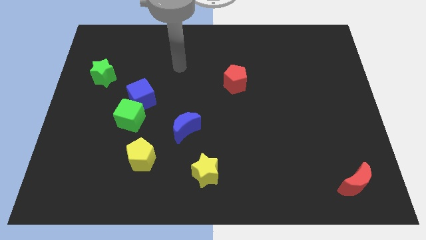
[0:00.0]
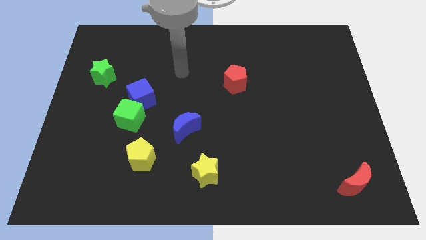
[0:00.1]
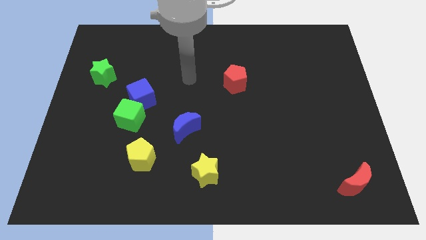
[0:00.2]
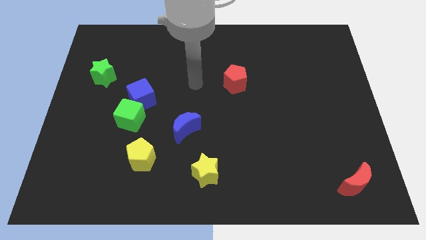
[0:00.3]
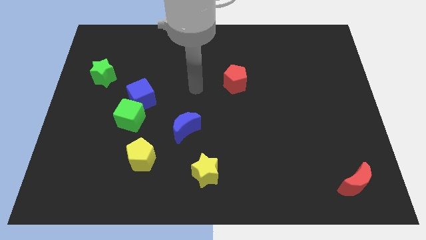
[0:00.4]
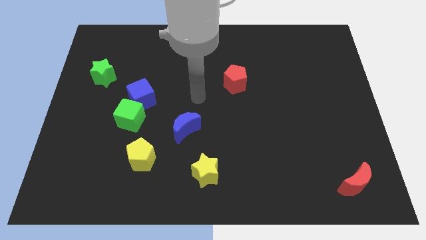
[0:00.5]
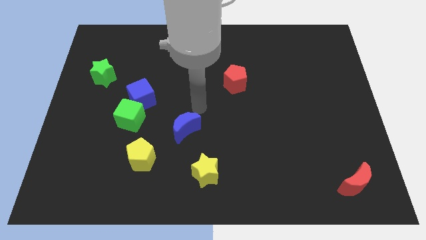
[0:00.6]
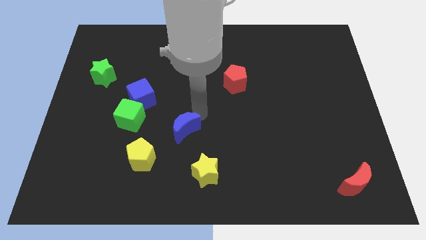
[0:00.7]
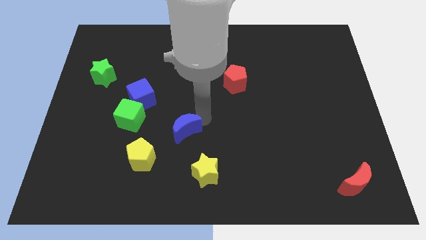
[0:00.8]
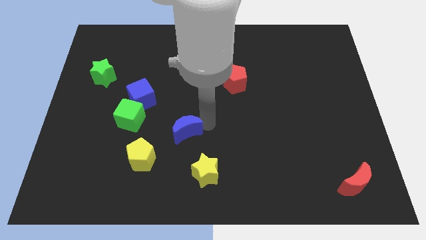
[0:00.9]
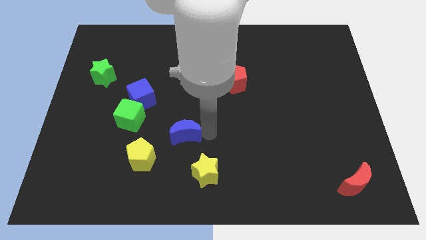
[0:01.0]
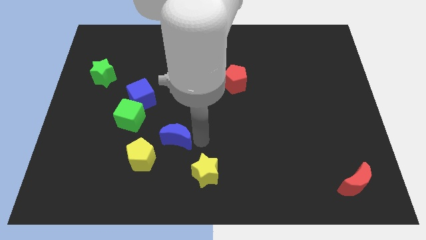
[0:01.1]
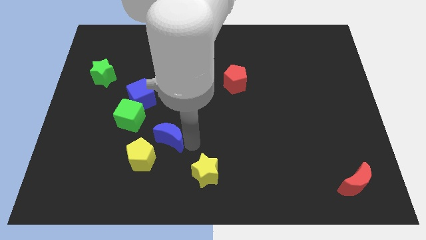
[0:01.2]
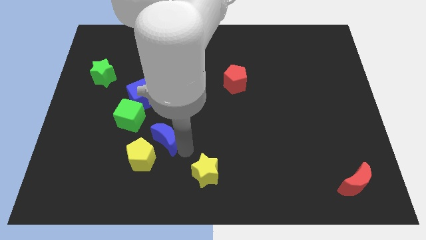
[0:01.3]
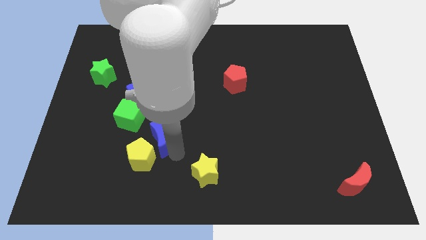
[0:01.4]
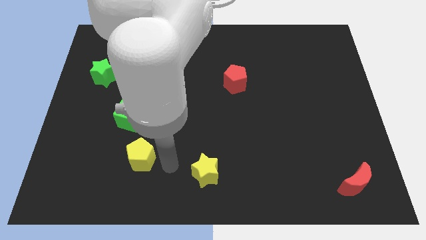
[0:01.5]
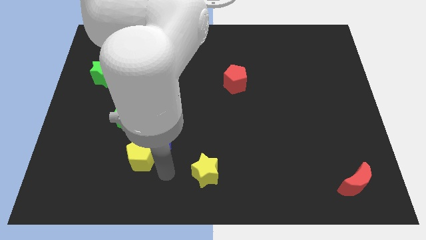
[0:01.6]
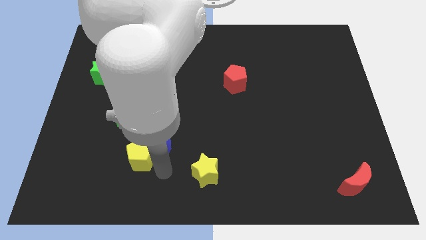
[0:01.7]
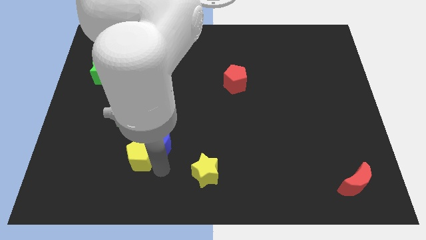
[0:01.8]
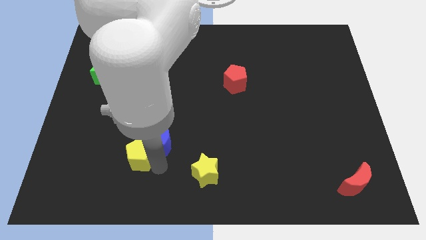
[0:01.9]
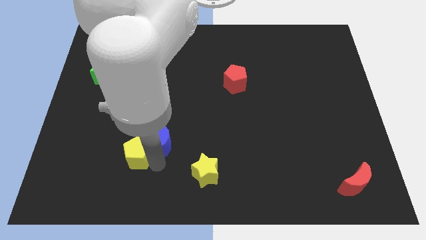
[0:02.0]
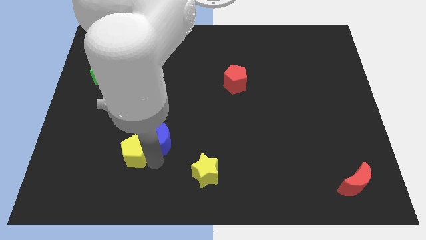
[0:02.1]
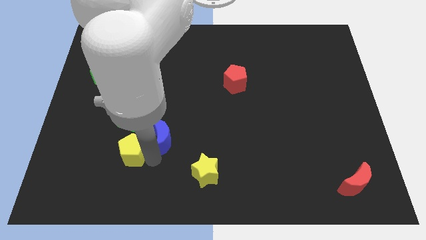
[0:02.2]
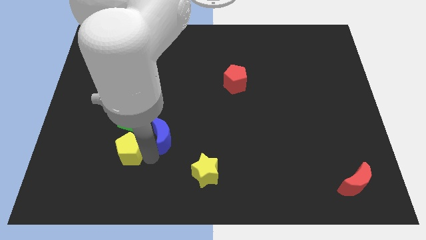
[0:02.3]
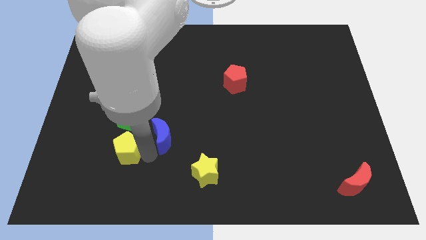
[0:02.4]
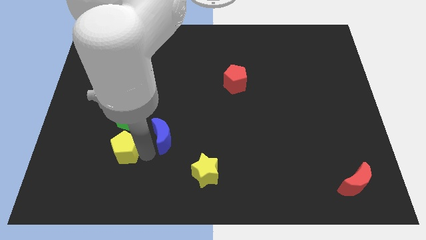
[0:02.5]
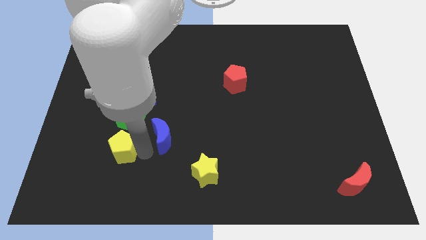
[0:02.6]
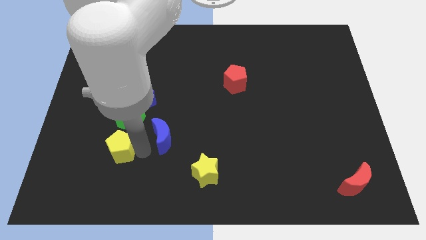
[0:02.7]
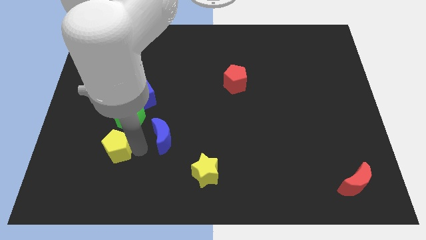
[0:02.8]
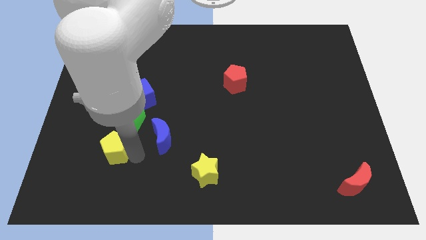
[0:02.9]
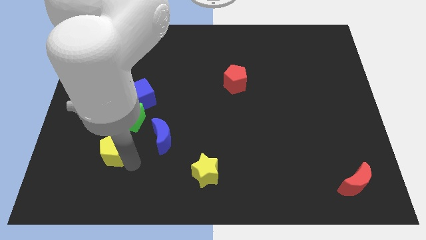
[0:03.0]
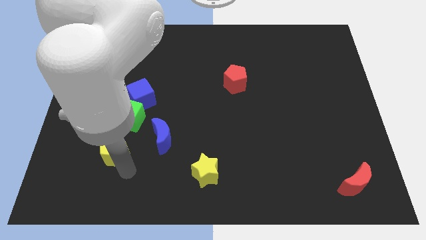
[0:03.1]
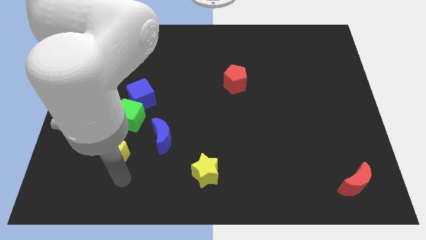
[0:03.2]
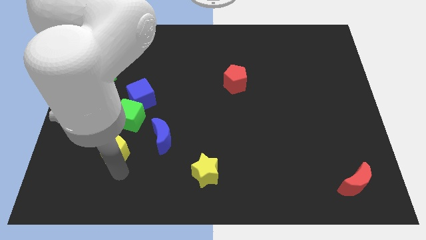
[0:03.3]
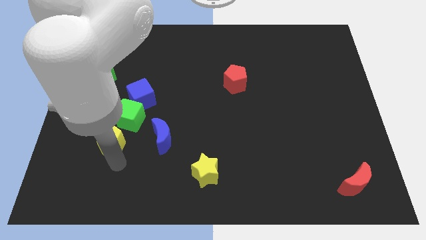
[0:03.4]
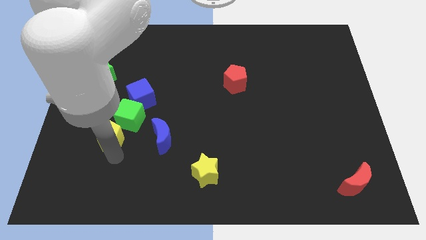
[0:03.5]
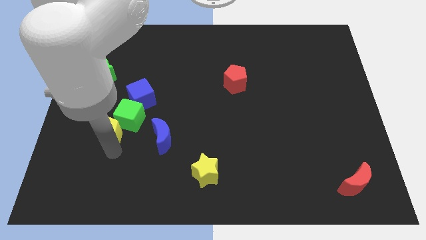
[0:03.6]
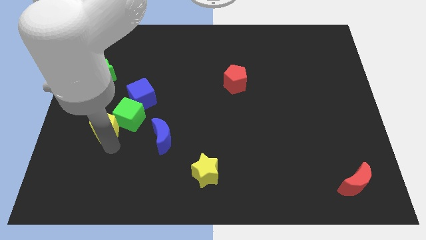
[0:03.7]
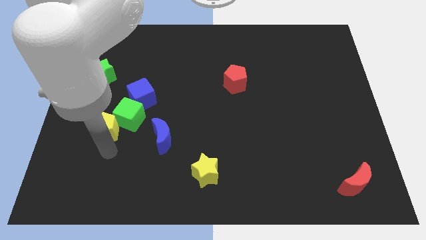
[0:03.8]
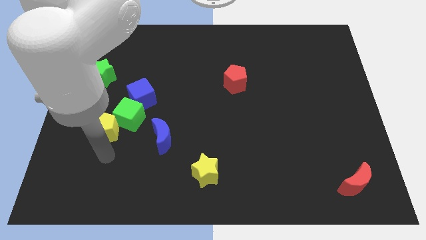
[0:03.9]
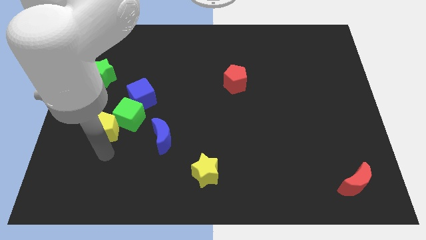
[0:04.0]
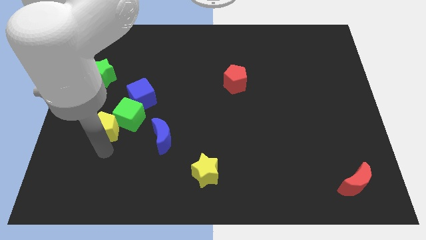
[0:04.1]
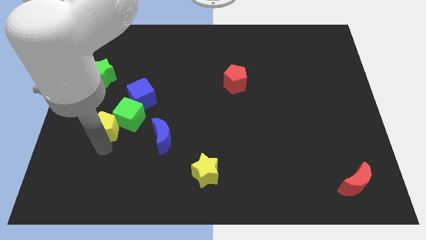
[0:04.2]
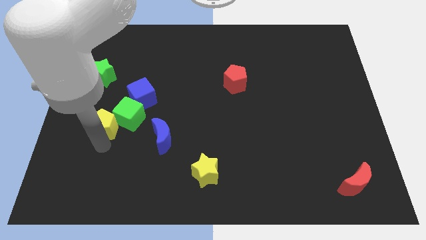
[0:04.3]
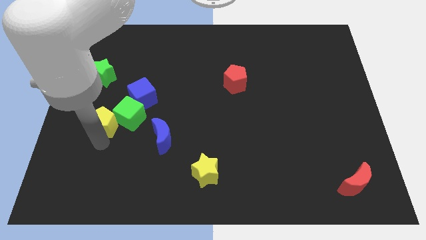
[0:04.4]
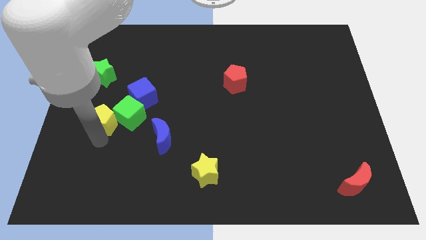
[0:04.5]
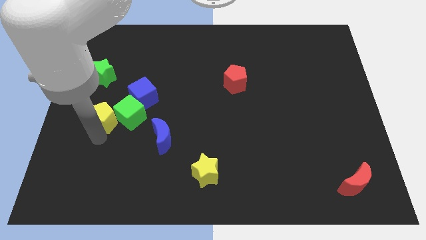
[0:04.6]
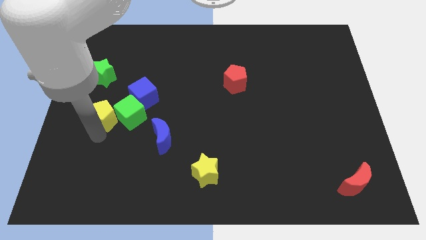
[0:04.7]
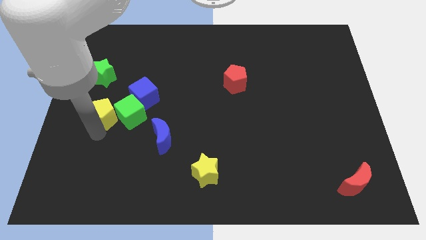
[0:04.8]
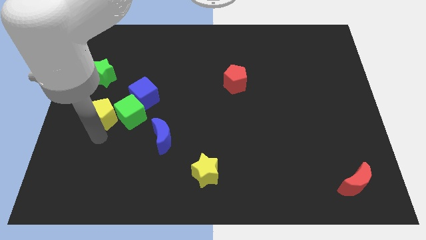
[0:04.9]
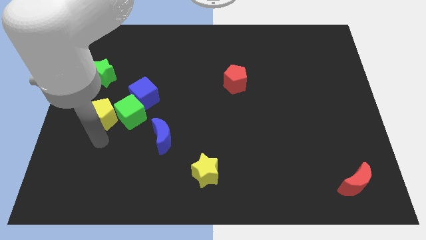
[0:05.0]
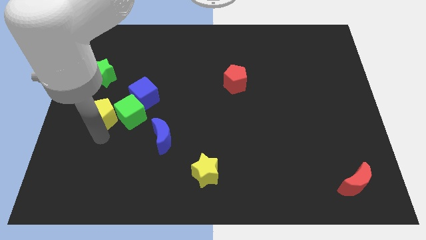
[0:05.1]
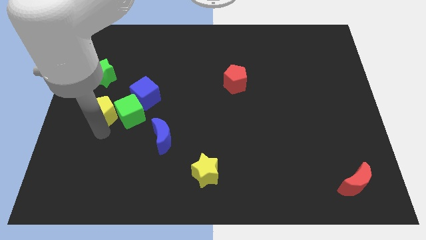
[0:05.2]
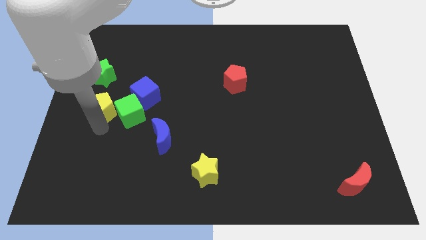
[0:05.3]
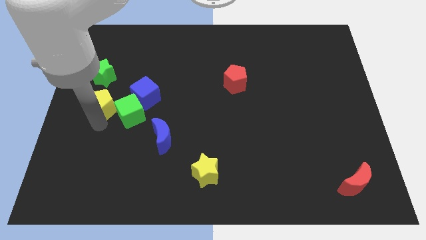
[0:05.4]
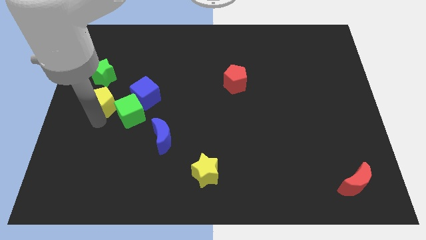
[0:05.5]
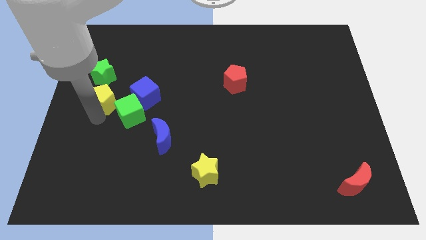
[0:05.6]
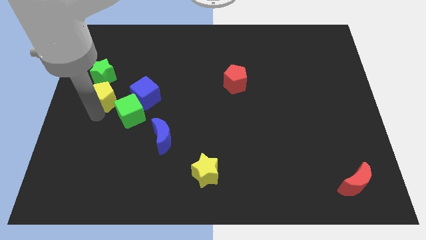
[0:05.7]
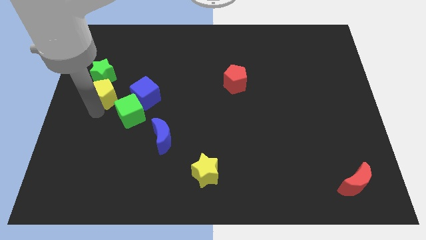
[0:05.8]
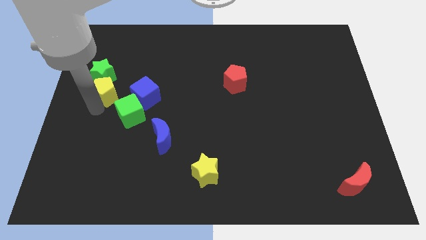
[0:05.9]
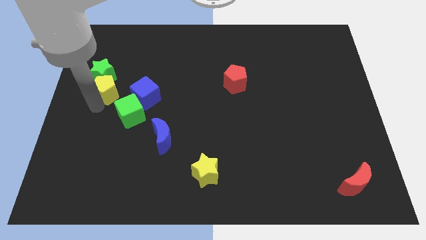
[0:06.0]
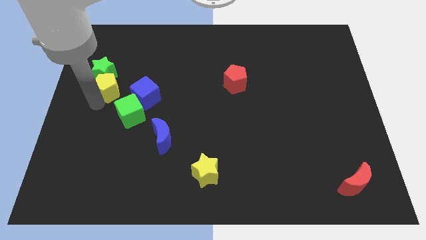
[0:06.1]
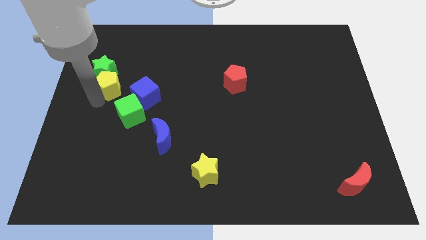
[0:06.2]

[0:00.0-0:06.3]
slide the yellow pentagon to the top left of the blue cube

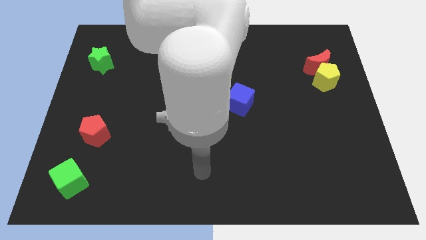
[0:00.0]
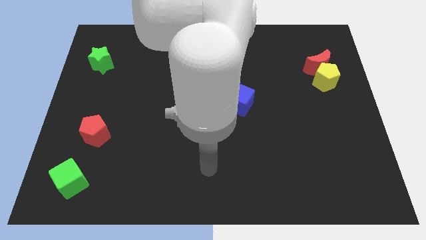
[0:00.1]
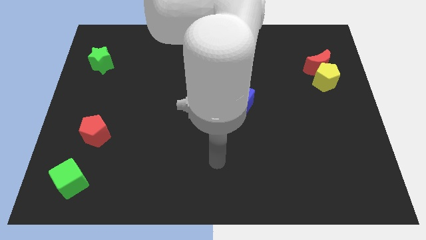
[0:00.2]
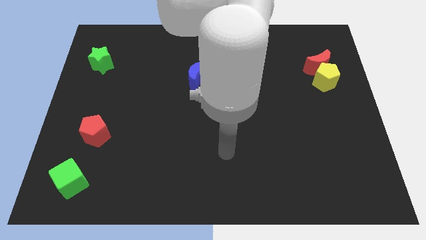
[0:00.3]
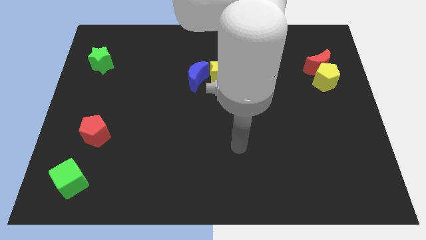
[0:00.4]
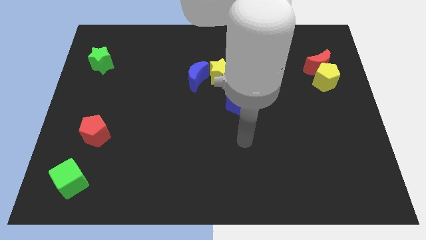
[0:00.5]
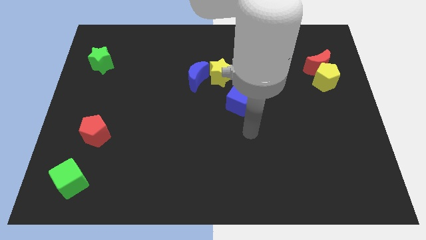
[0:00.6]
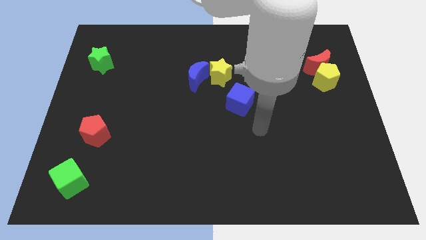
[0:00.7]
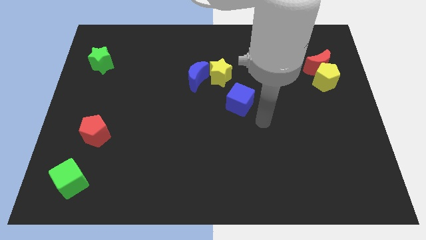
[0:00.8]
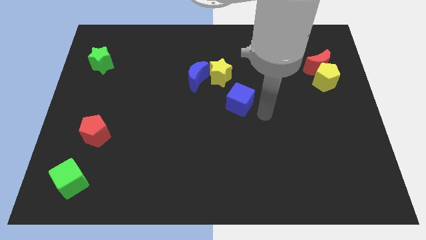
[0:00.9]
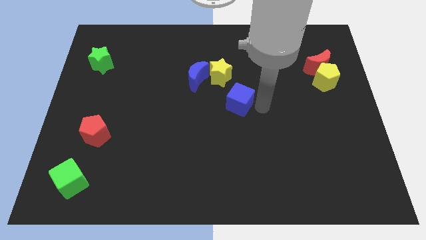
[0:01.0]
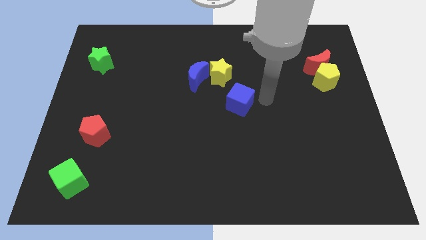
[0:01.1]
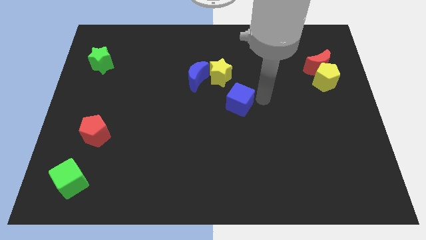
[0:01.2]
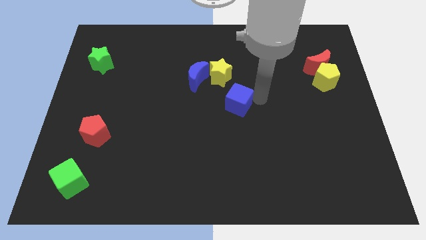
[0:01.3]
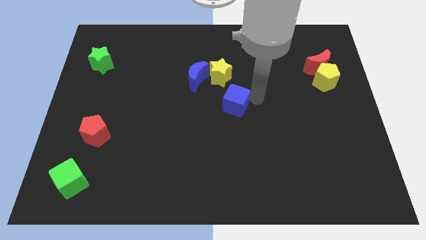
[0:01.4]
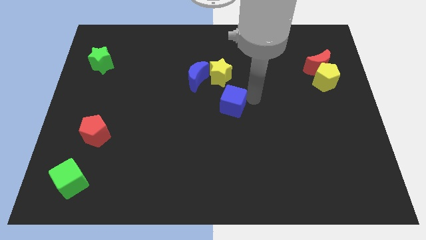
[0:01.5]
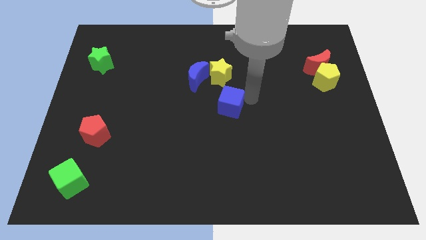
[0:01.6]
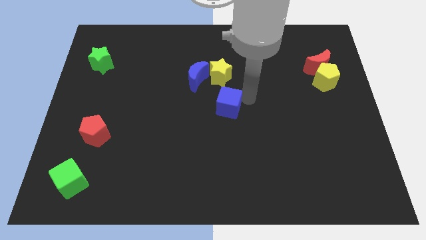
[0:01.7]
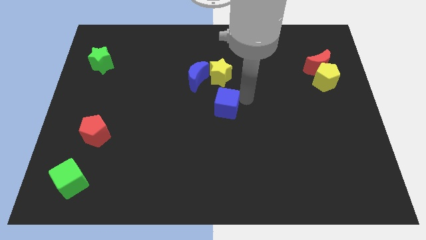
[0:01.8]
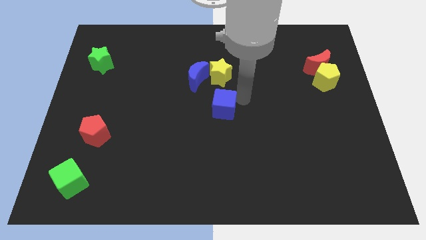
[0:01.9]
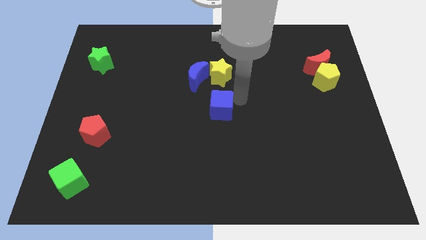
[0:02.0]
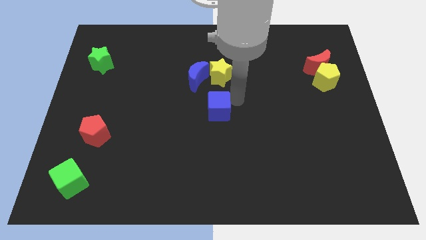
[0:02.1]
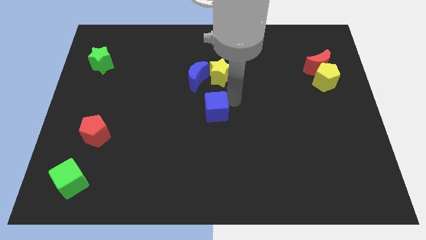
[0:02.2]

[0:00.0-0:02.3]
put the blue cube to the bottom side of the blue moon
